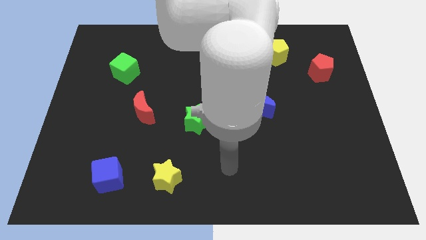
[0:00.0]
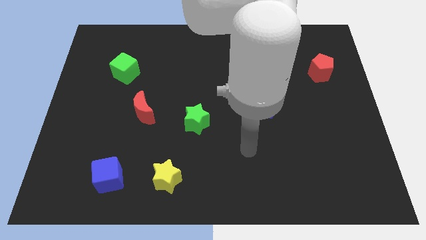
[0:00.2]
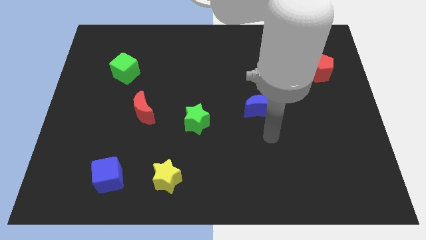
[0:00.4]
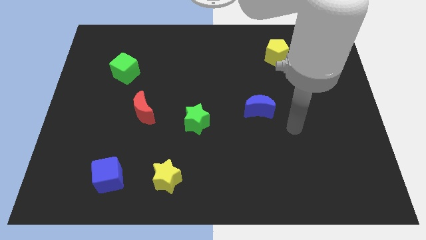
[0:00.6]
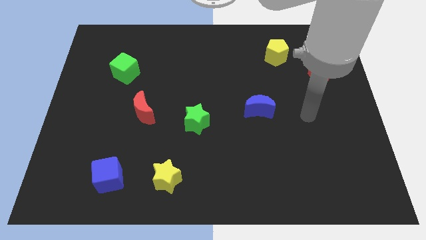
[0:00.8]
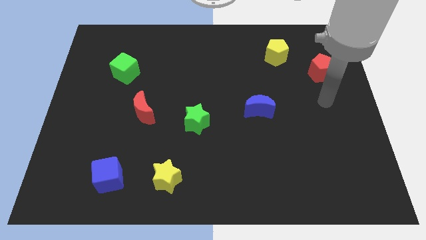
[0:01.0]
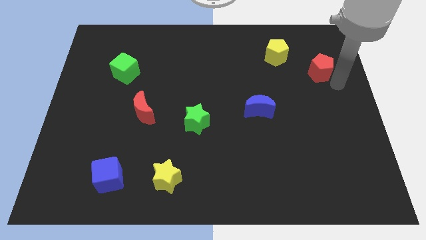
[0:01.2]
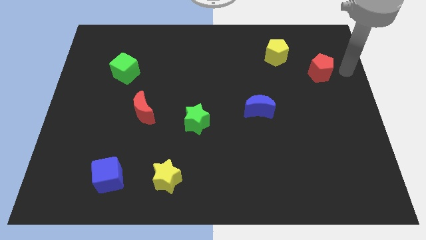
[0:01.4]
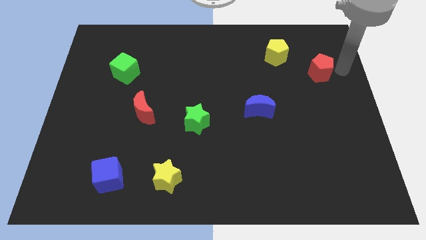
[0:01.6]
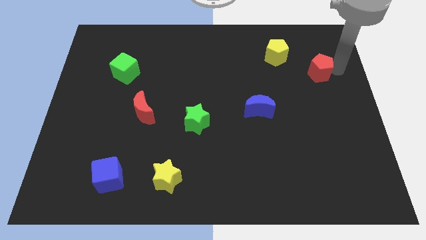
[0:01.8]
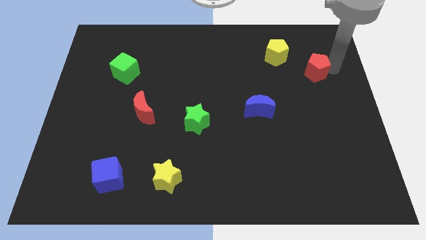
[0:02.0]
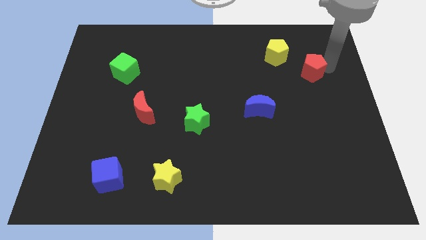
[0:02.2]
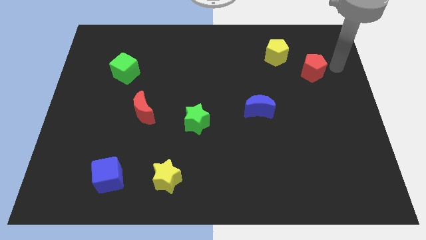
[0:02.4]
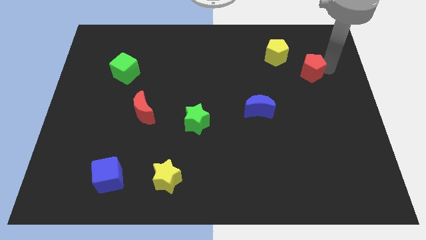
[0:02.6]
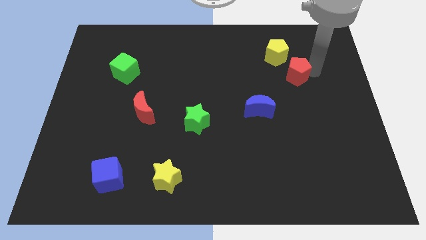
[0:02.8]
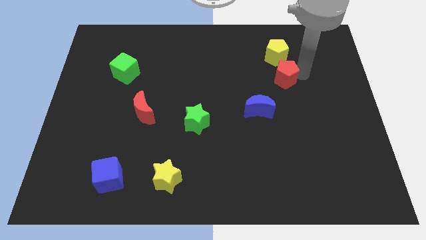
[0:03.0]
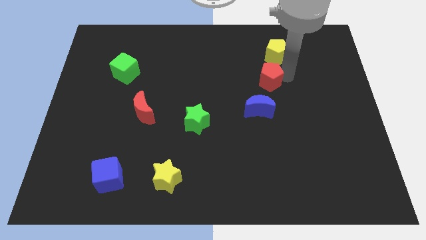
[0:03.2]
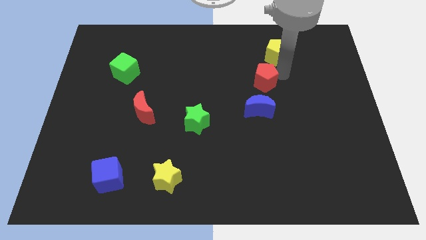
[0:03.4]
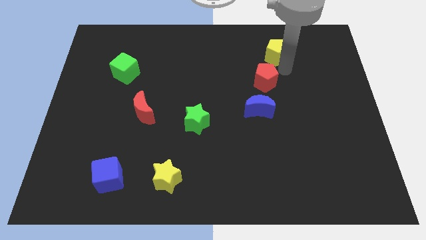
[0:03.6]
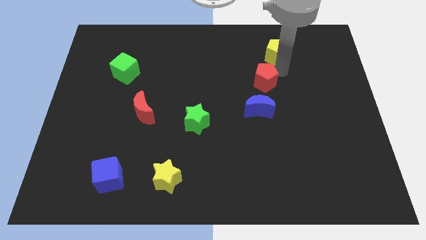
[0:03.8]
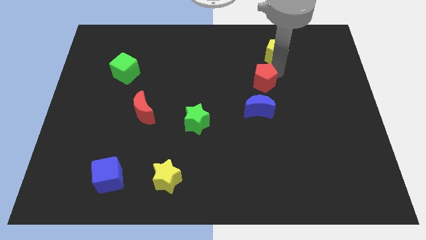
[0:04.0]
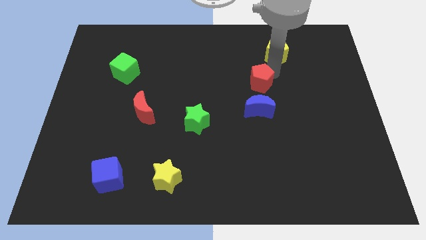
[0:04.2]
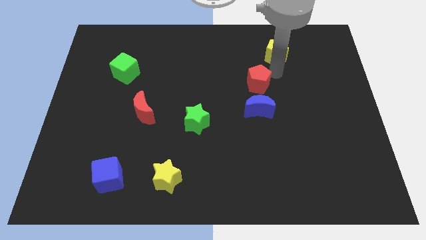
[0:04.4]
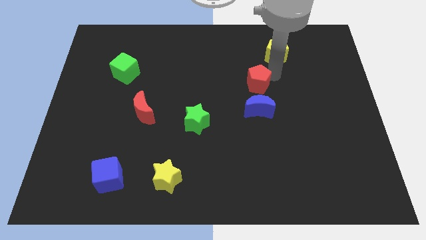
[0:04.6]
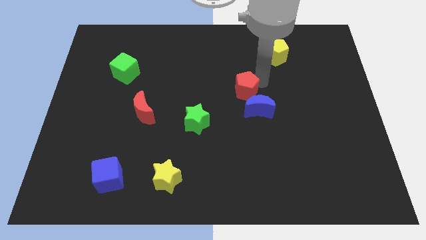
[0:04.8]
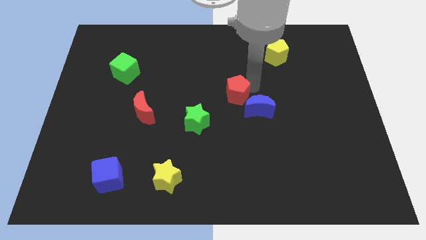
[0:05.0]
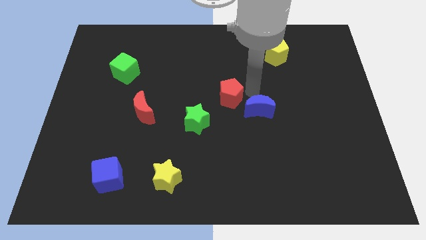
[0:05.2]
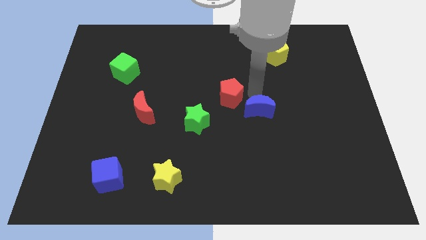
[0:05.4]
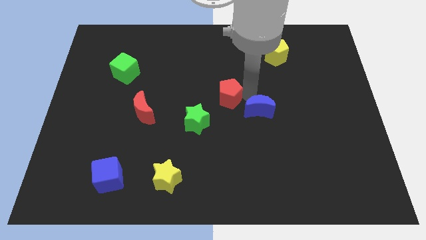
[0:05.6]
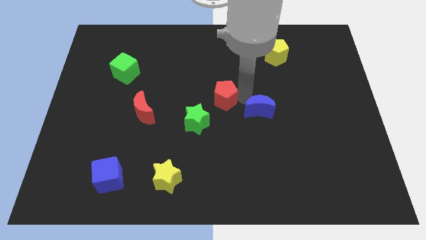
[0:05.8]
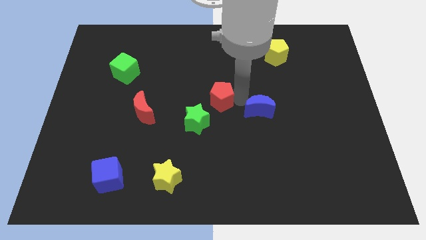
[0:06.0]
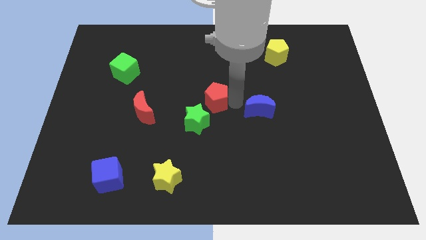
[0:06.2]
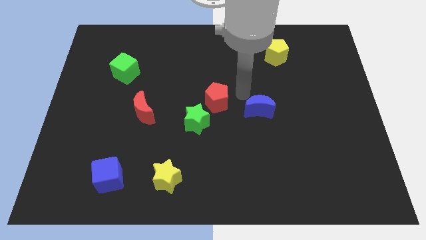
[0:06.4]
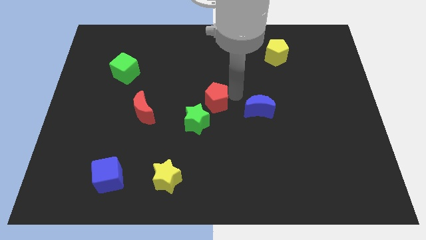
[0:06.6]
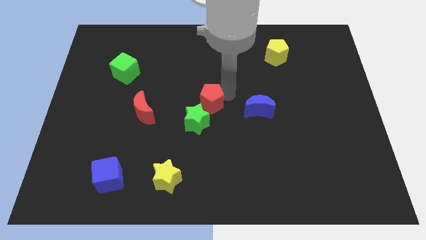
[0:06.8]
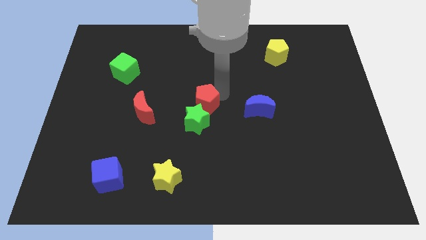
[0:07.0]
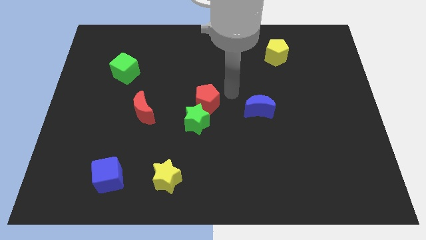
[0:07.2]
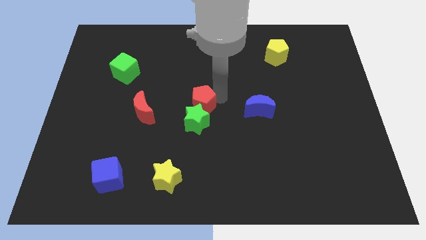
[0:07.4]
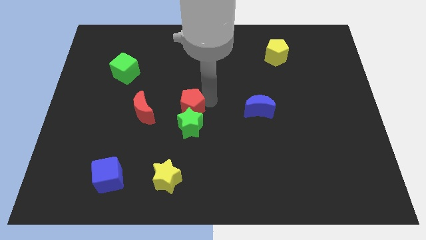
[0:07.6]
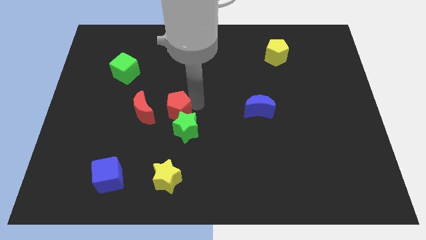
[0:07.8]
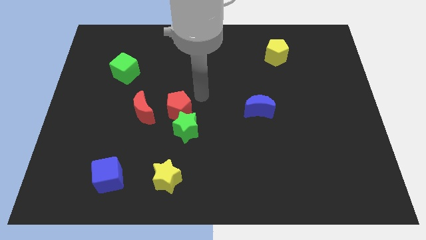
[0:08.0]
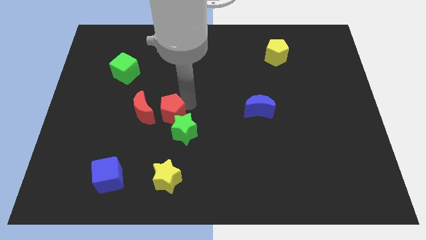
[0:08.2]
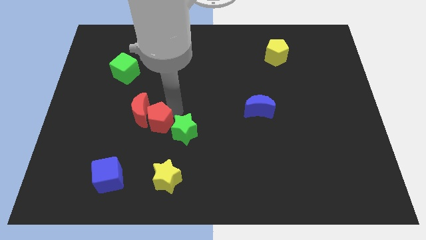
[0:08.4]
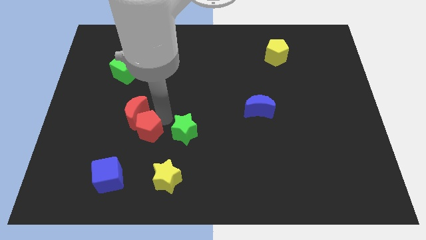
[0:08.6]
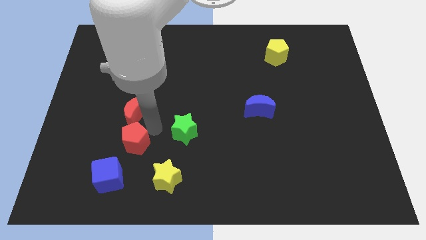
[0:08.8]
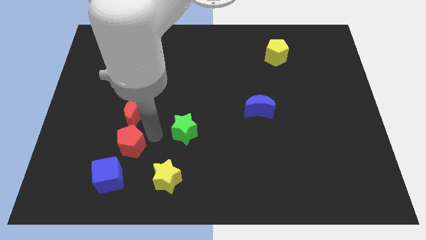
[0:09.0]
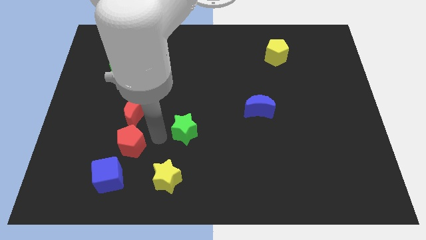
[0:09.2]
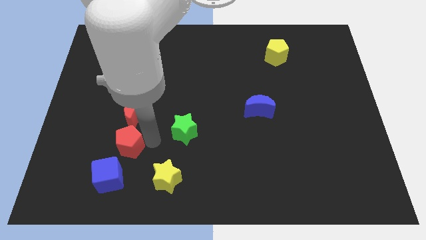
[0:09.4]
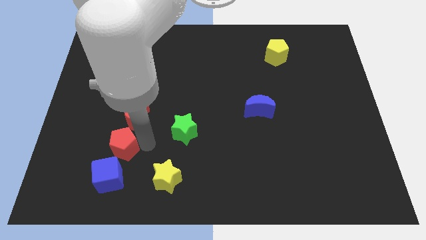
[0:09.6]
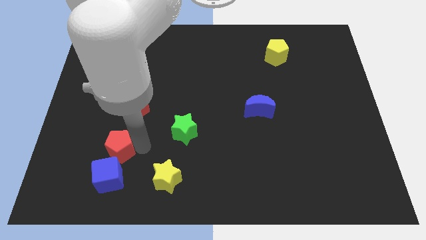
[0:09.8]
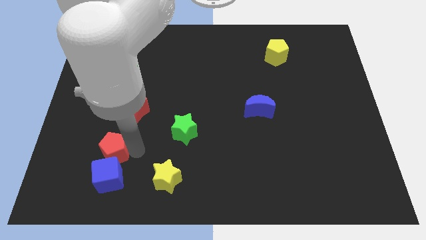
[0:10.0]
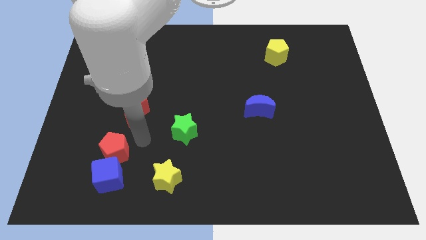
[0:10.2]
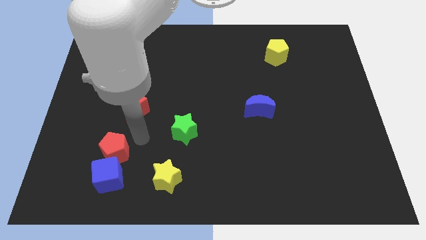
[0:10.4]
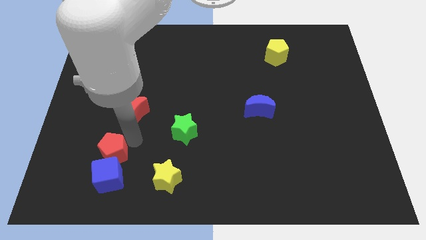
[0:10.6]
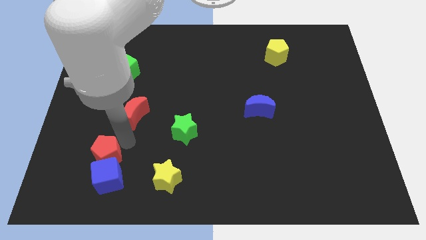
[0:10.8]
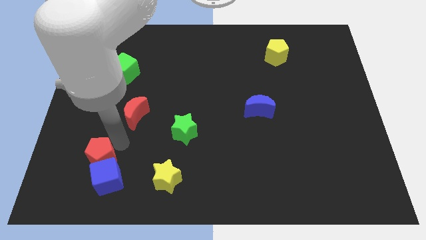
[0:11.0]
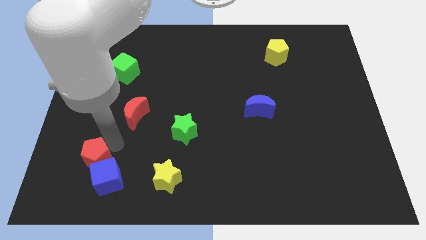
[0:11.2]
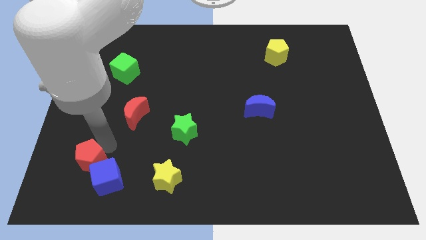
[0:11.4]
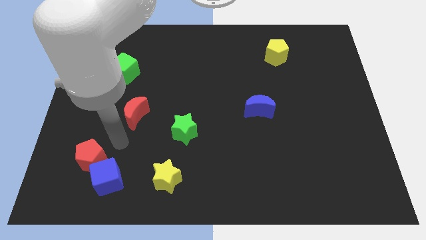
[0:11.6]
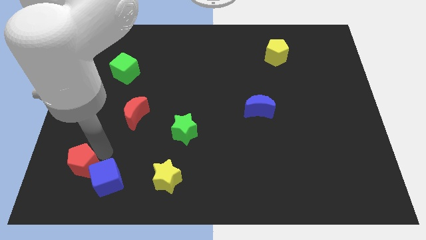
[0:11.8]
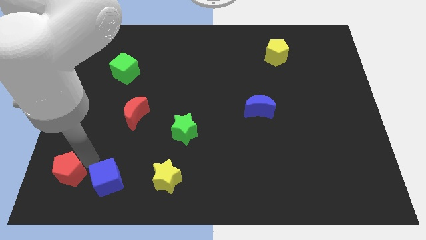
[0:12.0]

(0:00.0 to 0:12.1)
push the red pentagon to the bottom left corner

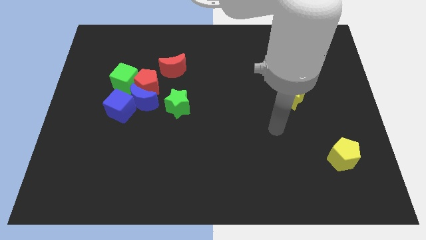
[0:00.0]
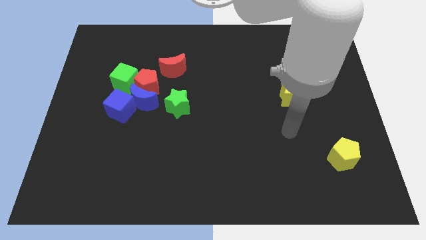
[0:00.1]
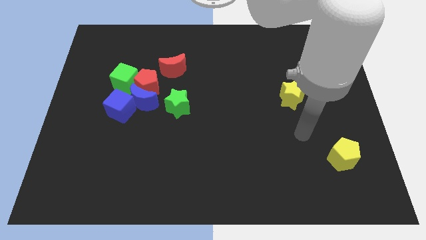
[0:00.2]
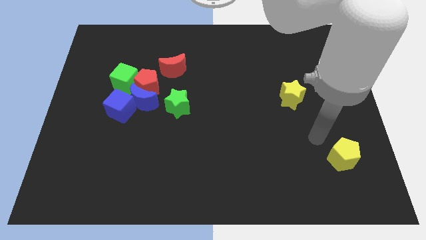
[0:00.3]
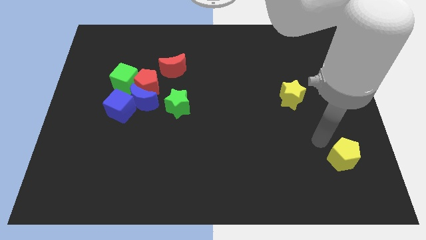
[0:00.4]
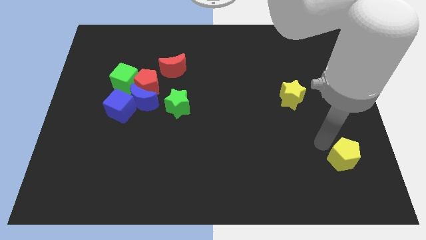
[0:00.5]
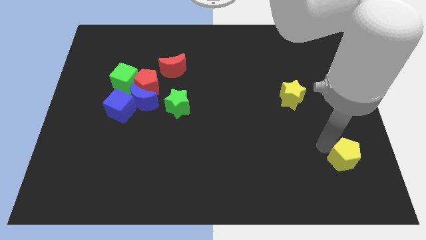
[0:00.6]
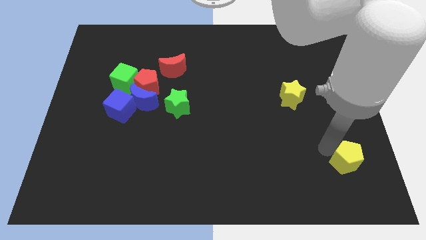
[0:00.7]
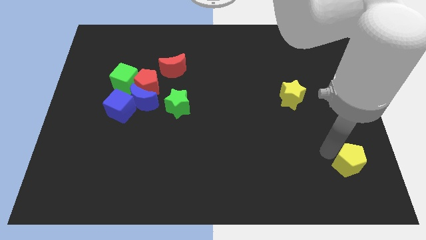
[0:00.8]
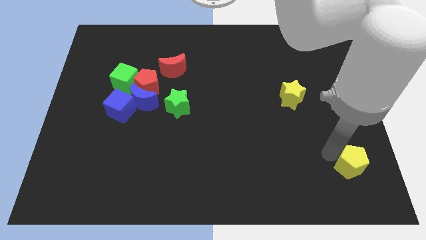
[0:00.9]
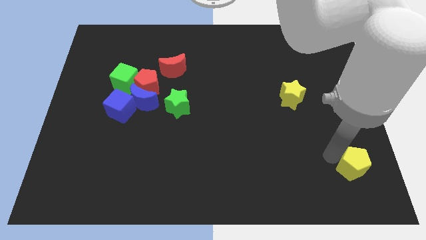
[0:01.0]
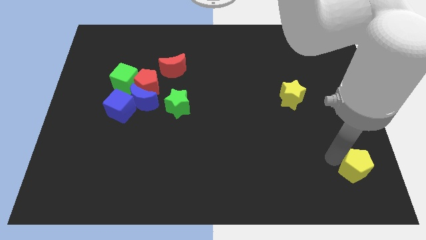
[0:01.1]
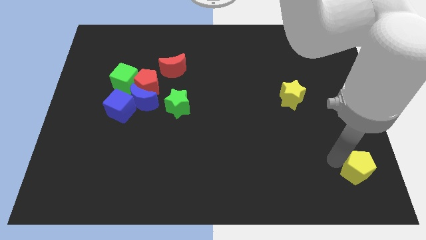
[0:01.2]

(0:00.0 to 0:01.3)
push the yellow pentagon to the bottom right
